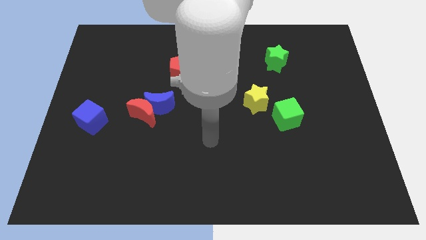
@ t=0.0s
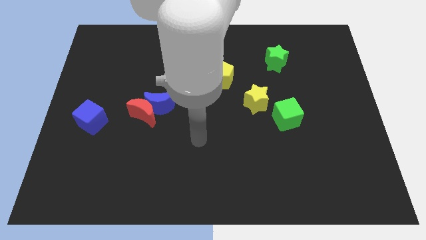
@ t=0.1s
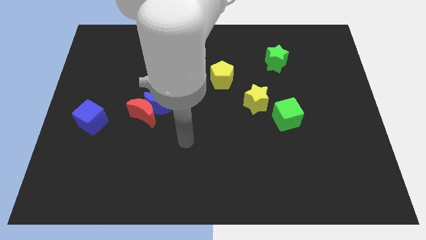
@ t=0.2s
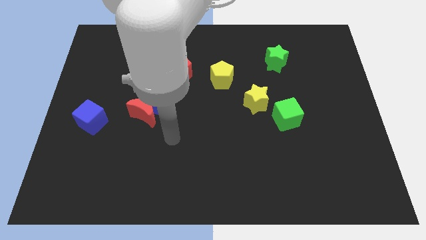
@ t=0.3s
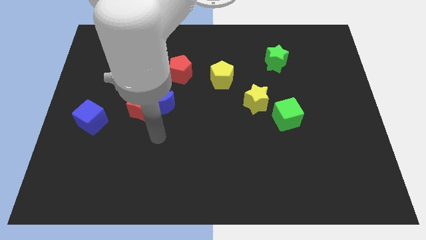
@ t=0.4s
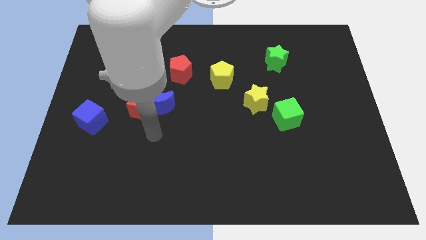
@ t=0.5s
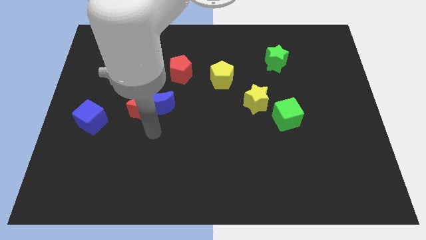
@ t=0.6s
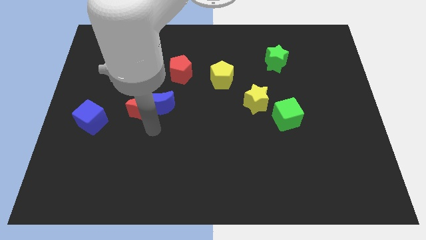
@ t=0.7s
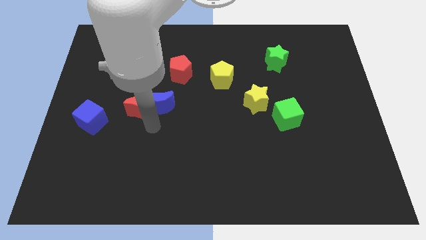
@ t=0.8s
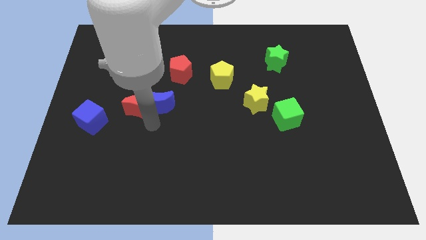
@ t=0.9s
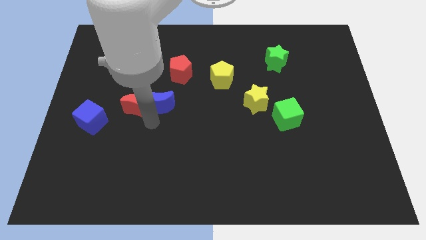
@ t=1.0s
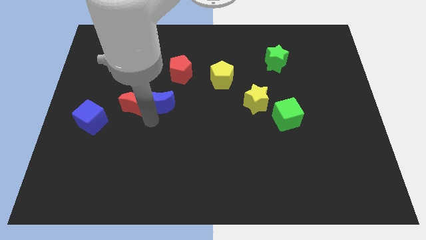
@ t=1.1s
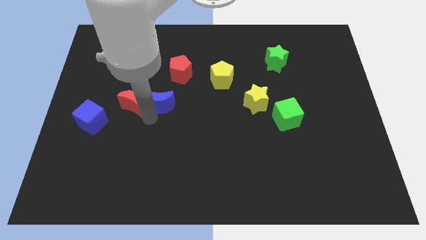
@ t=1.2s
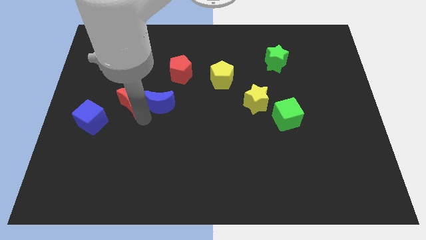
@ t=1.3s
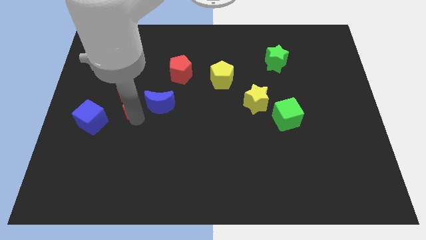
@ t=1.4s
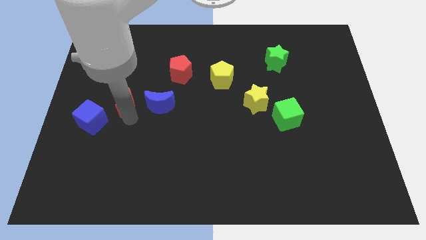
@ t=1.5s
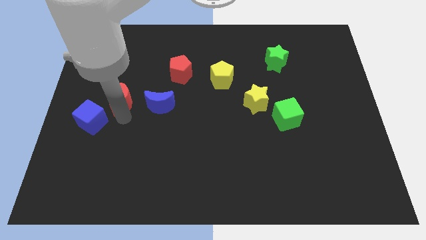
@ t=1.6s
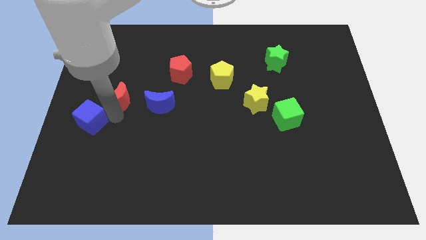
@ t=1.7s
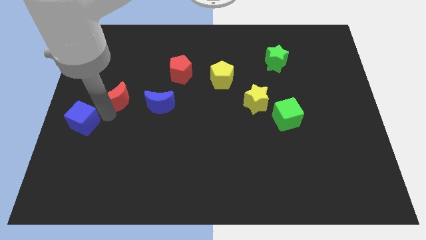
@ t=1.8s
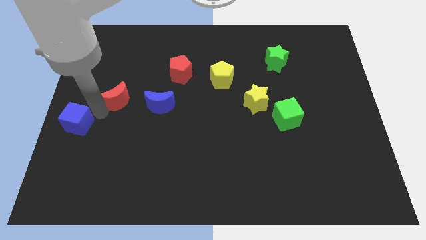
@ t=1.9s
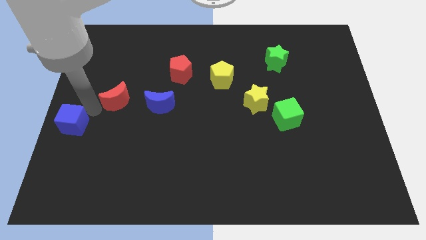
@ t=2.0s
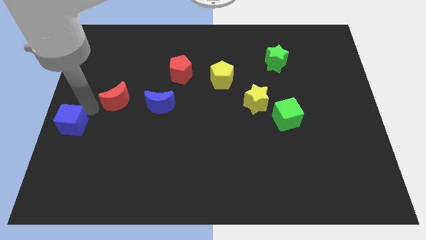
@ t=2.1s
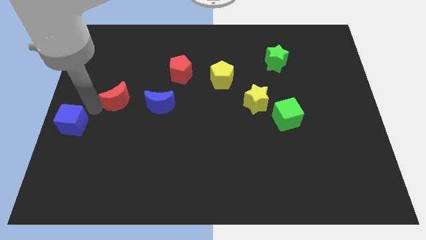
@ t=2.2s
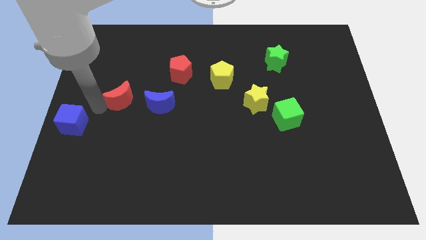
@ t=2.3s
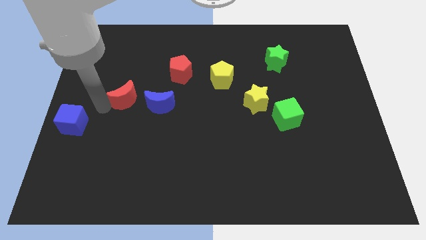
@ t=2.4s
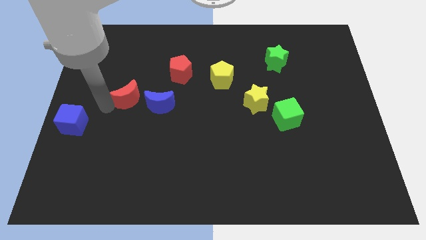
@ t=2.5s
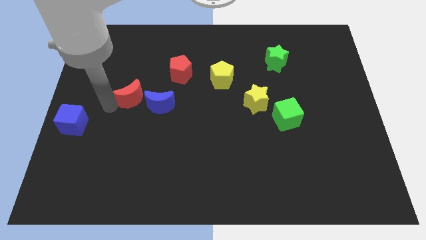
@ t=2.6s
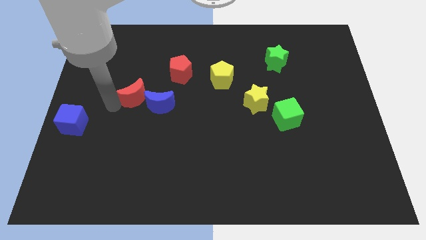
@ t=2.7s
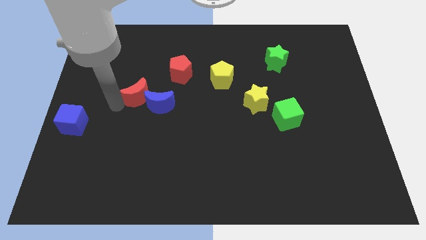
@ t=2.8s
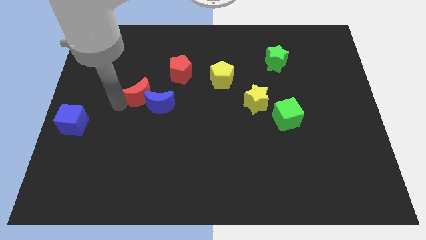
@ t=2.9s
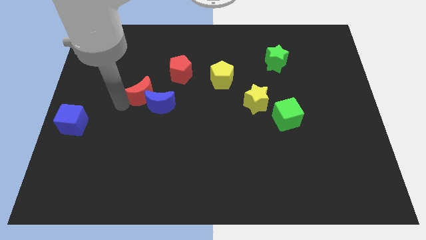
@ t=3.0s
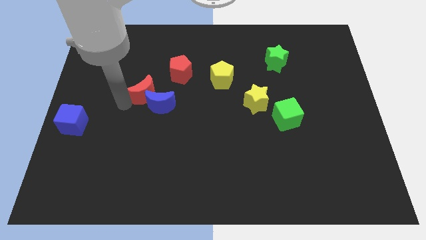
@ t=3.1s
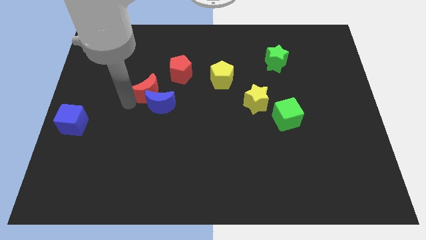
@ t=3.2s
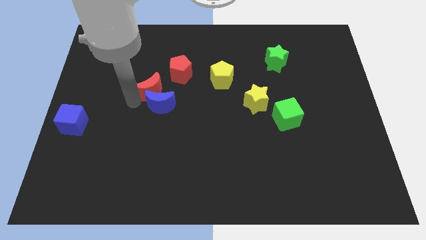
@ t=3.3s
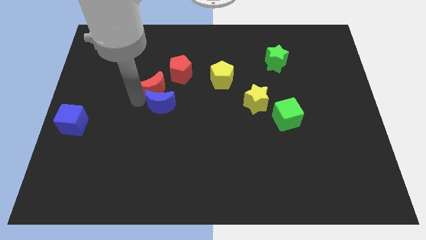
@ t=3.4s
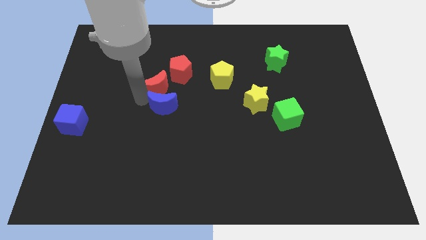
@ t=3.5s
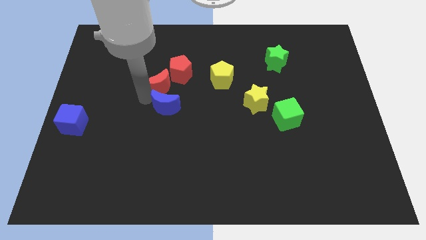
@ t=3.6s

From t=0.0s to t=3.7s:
slightly move the red moon upwards and right

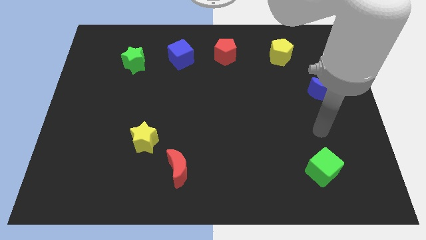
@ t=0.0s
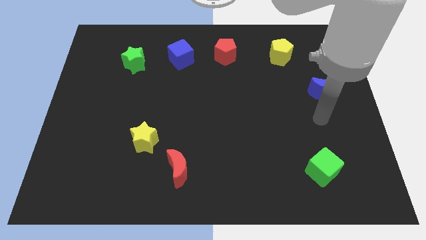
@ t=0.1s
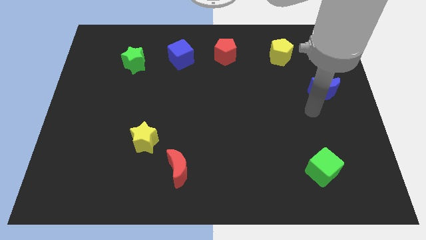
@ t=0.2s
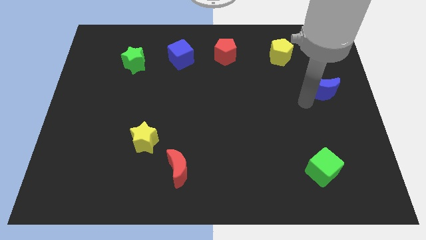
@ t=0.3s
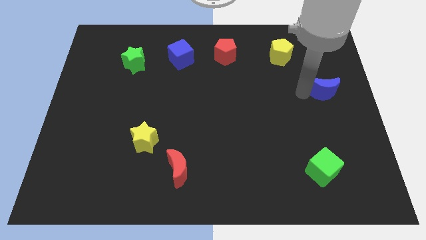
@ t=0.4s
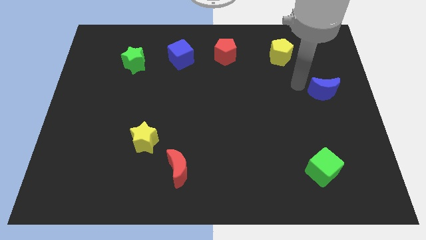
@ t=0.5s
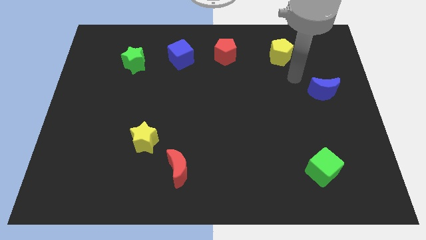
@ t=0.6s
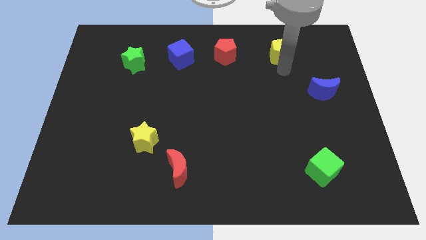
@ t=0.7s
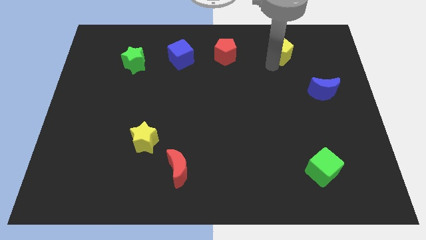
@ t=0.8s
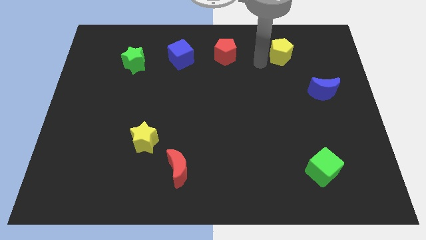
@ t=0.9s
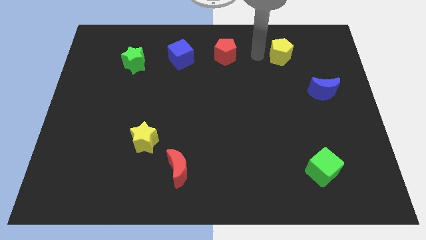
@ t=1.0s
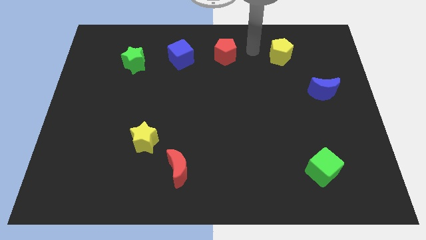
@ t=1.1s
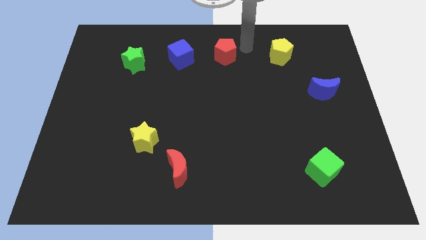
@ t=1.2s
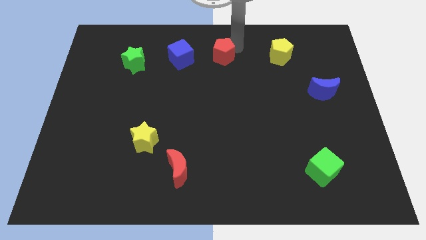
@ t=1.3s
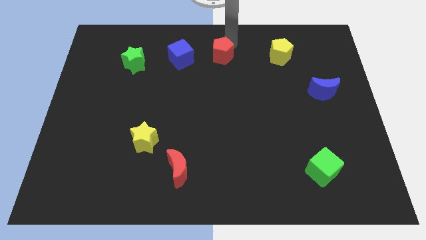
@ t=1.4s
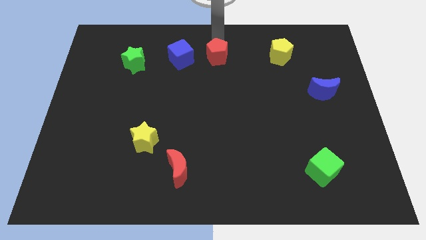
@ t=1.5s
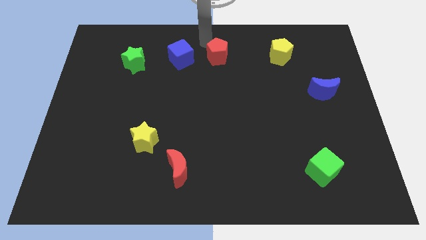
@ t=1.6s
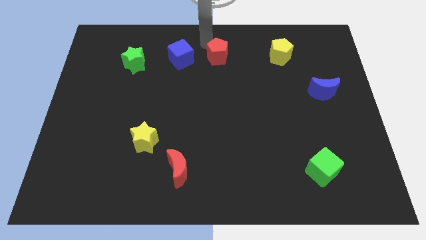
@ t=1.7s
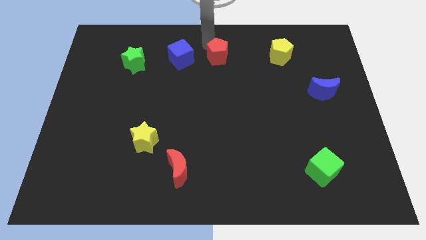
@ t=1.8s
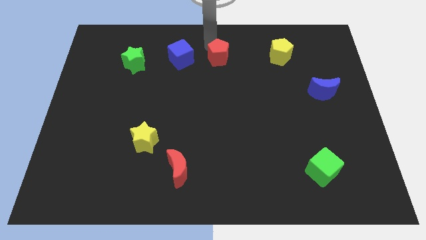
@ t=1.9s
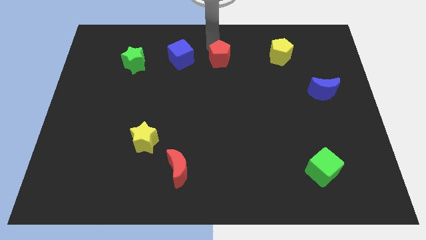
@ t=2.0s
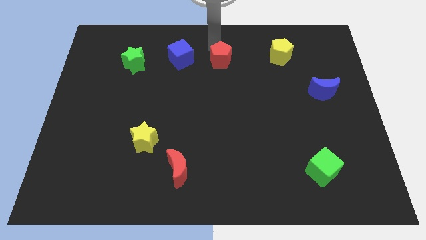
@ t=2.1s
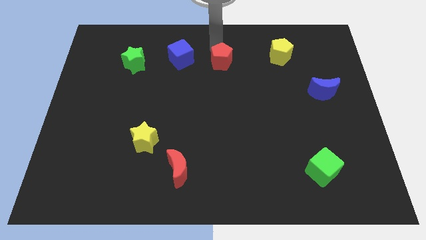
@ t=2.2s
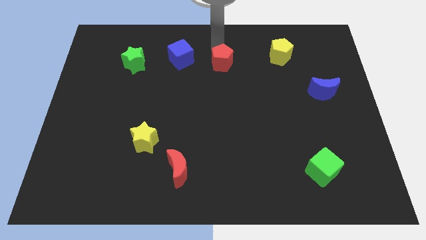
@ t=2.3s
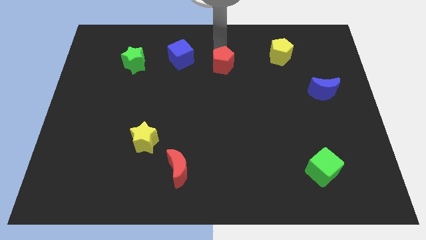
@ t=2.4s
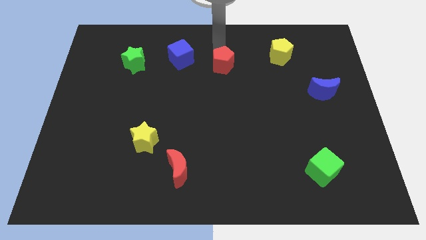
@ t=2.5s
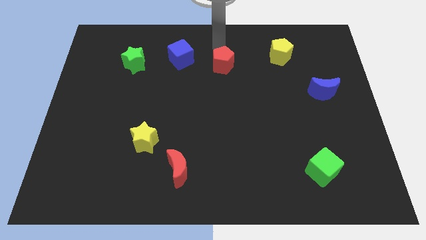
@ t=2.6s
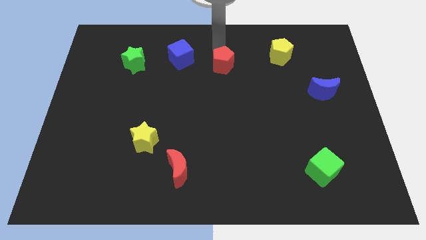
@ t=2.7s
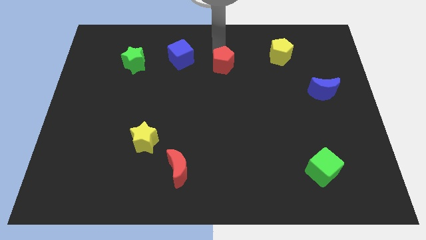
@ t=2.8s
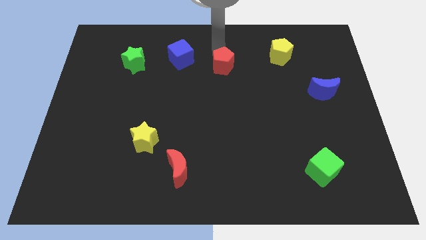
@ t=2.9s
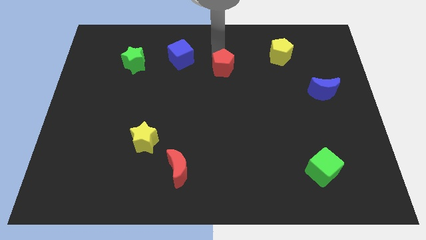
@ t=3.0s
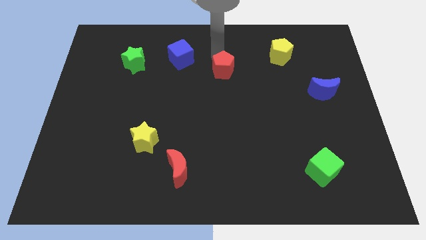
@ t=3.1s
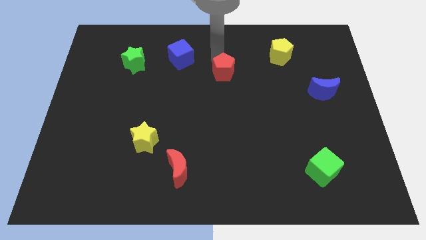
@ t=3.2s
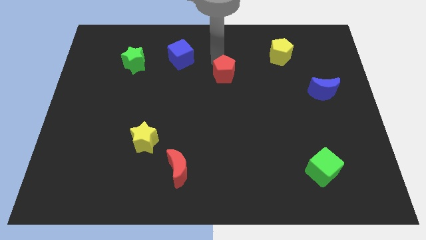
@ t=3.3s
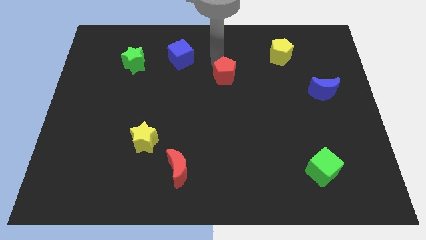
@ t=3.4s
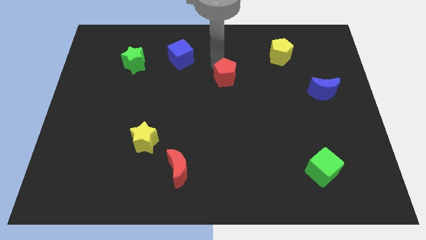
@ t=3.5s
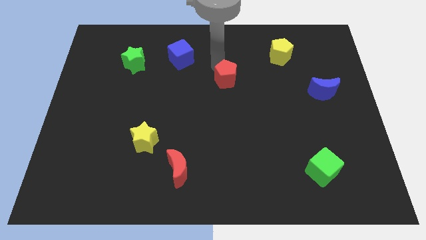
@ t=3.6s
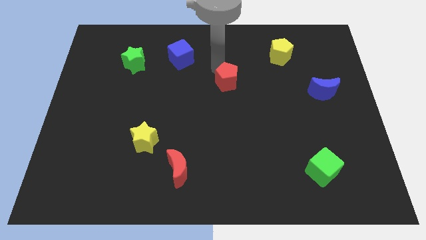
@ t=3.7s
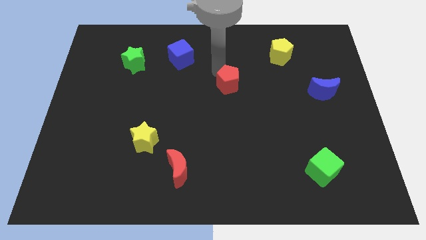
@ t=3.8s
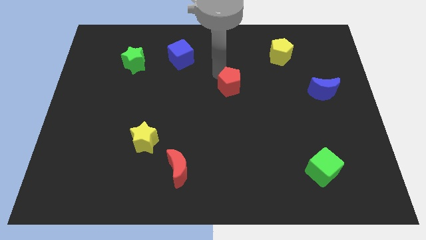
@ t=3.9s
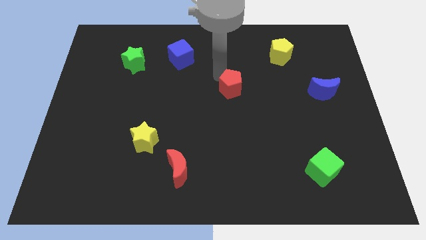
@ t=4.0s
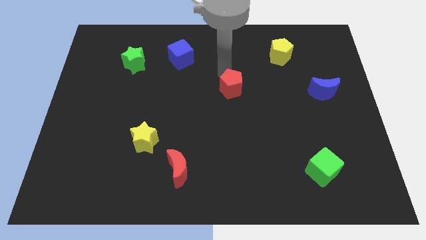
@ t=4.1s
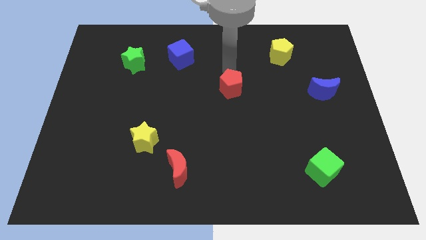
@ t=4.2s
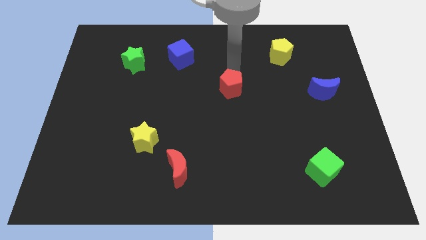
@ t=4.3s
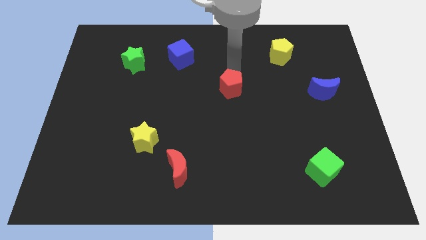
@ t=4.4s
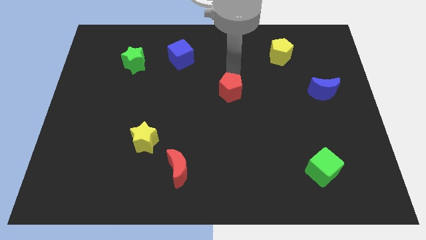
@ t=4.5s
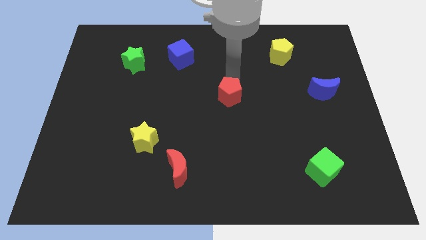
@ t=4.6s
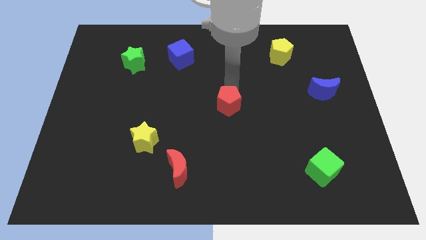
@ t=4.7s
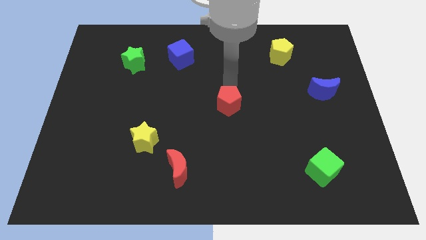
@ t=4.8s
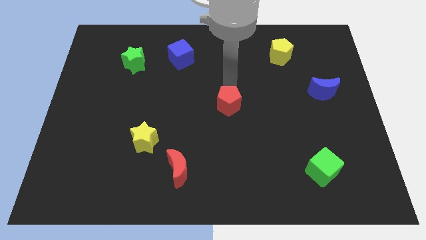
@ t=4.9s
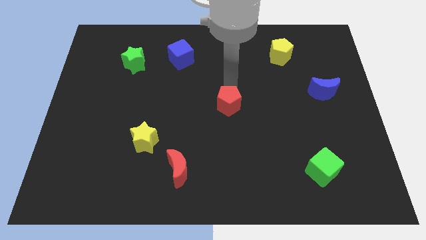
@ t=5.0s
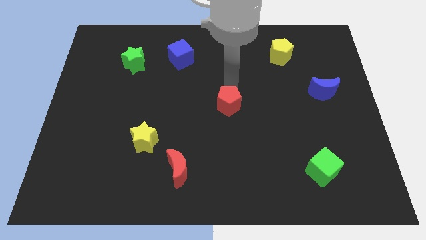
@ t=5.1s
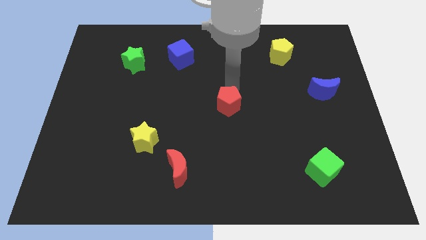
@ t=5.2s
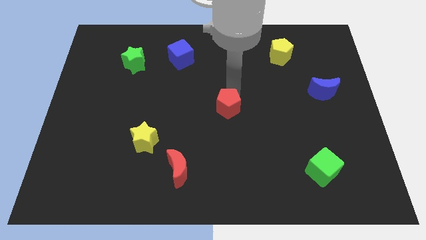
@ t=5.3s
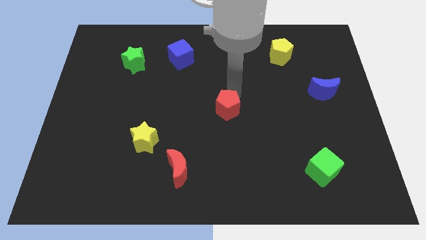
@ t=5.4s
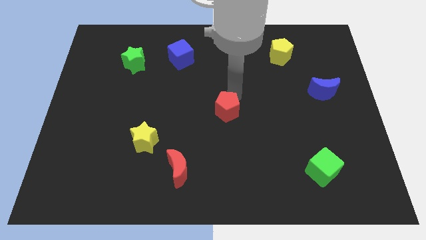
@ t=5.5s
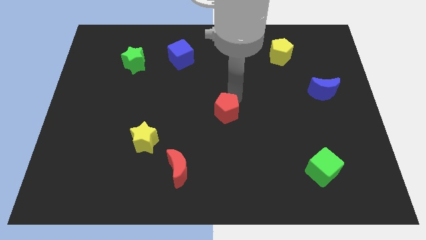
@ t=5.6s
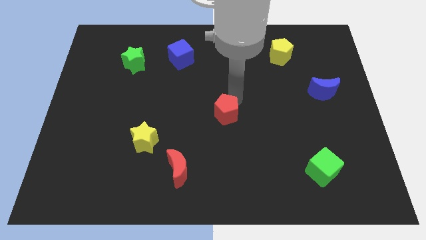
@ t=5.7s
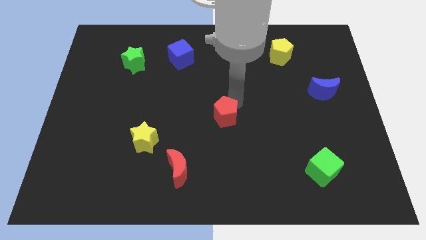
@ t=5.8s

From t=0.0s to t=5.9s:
slide the red pentagon downwards
